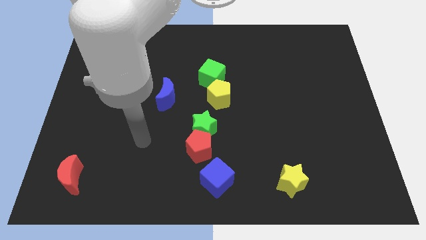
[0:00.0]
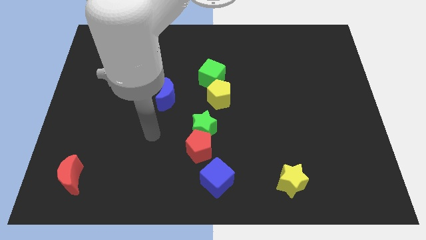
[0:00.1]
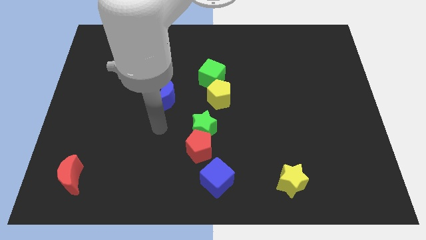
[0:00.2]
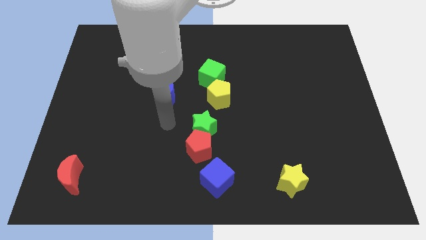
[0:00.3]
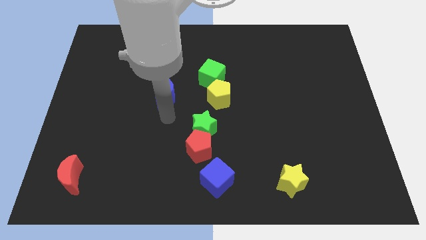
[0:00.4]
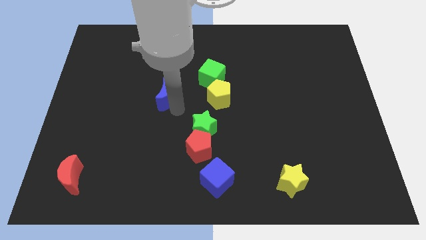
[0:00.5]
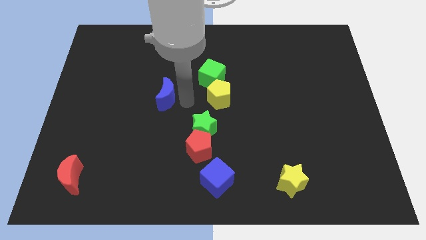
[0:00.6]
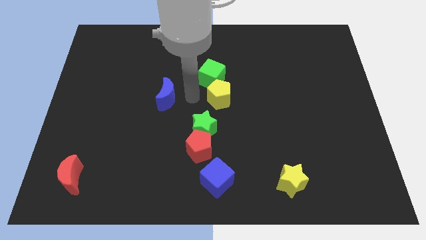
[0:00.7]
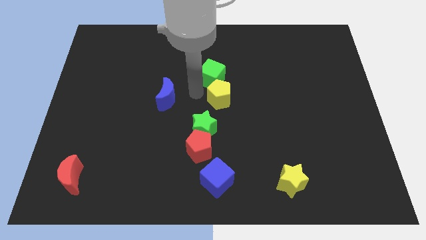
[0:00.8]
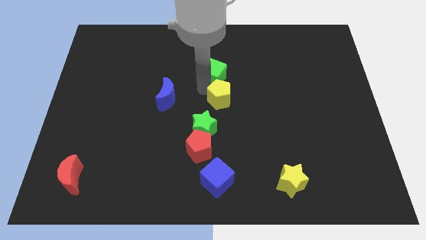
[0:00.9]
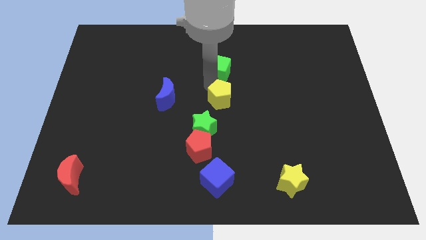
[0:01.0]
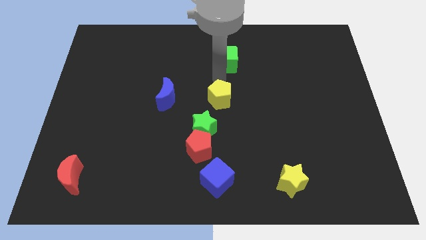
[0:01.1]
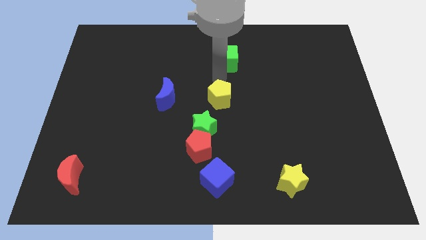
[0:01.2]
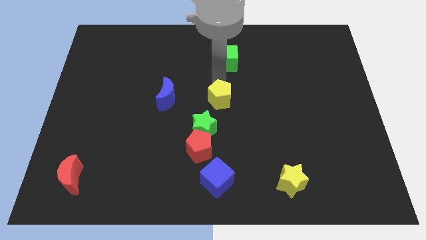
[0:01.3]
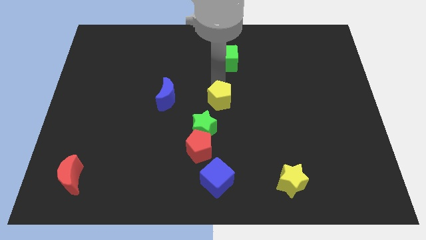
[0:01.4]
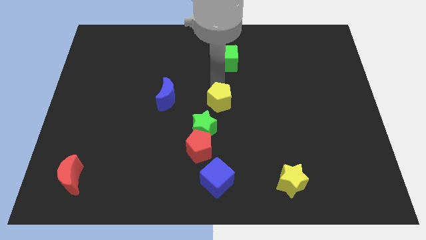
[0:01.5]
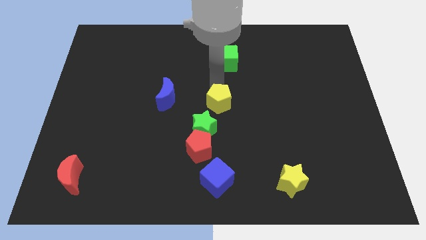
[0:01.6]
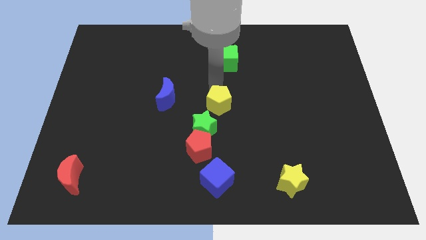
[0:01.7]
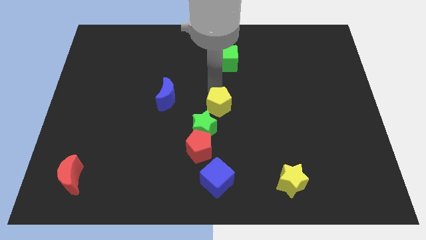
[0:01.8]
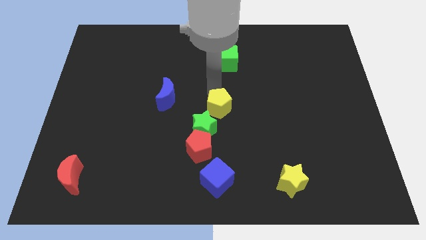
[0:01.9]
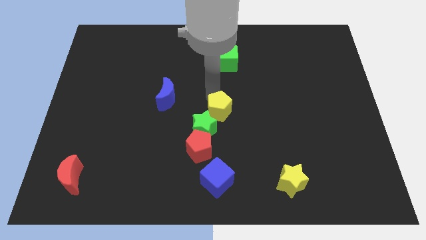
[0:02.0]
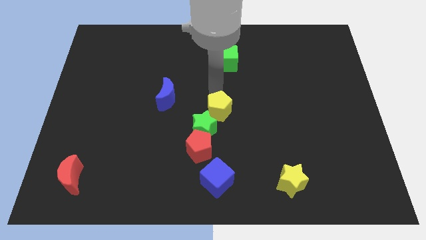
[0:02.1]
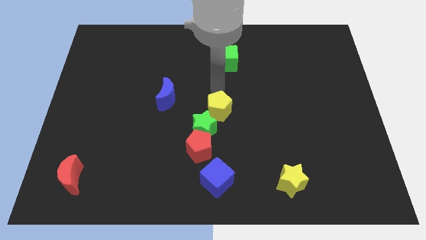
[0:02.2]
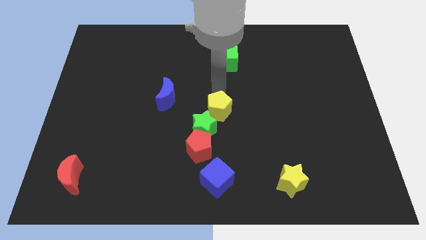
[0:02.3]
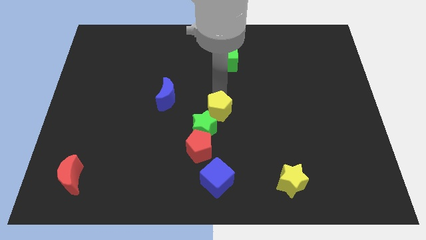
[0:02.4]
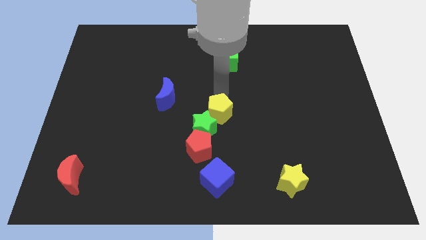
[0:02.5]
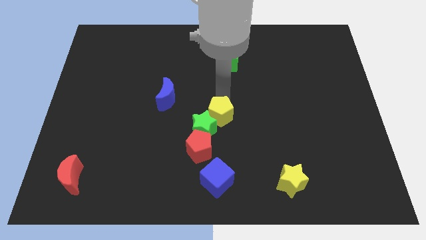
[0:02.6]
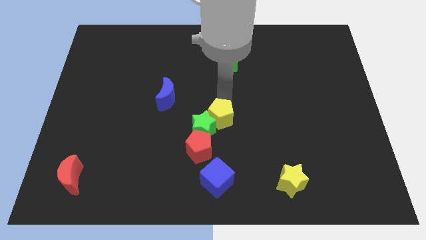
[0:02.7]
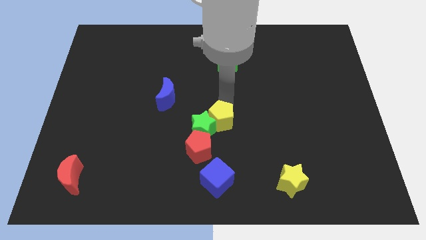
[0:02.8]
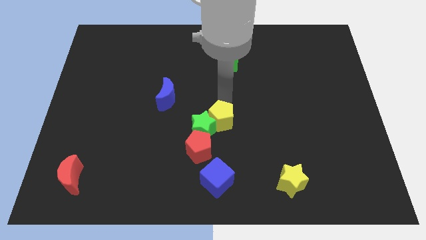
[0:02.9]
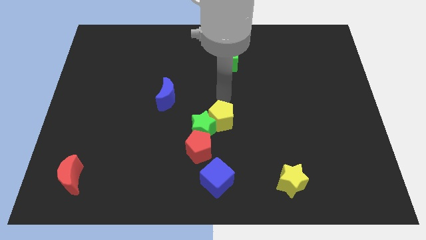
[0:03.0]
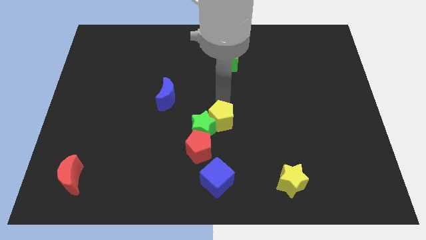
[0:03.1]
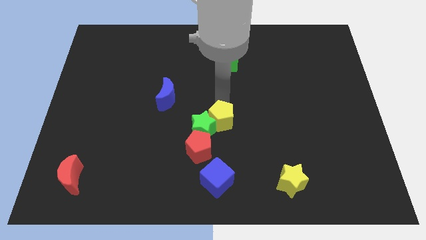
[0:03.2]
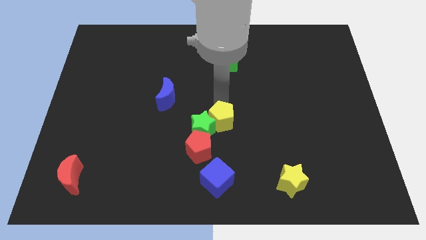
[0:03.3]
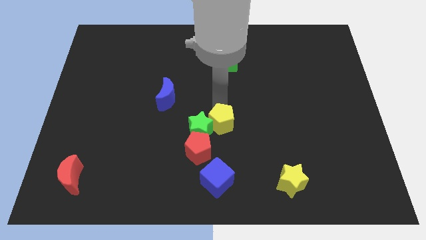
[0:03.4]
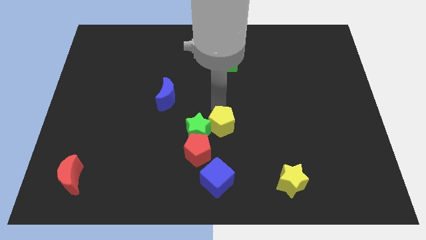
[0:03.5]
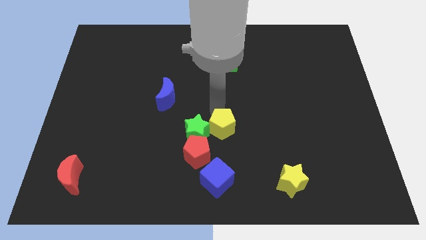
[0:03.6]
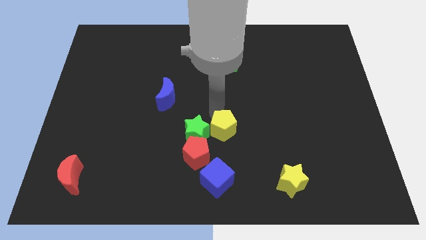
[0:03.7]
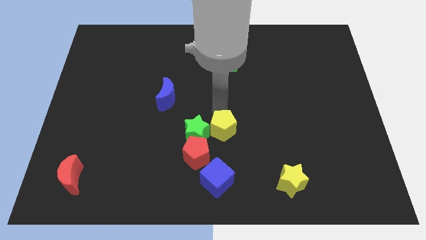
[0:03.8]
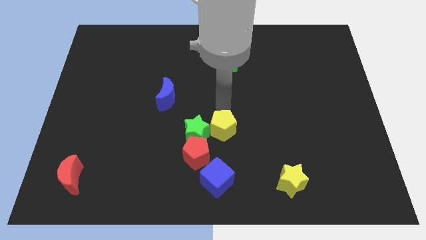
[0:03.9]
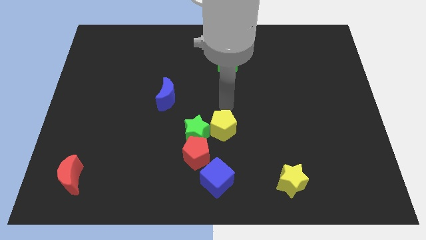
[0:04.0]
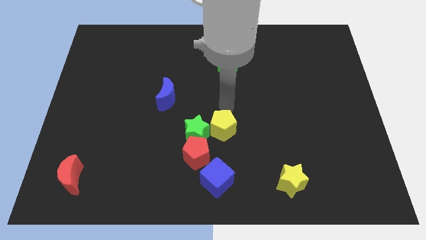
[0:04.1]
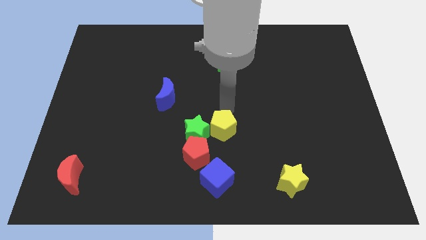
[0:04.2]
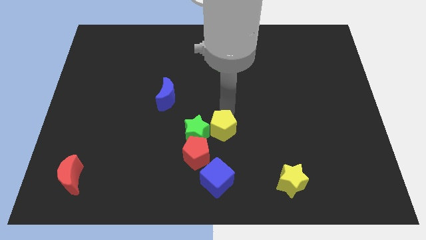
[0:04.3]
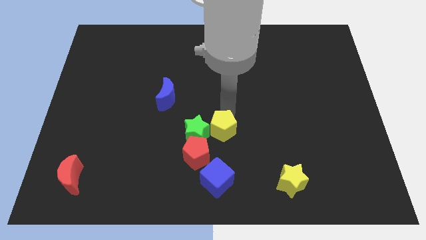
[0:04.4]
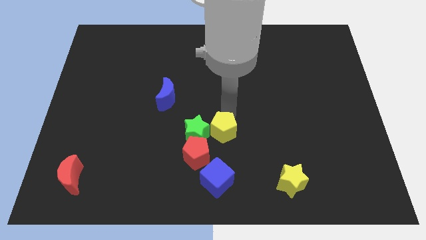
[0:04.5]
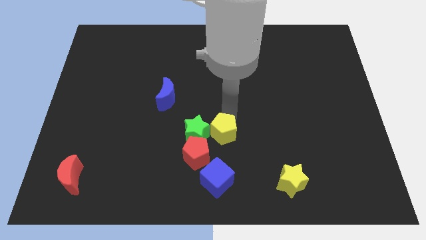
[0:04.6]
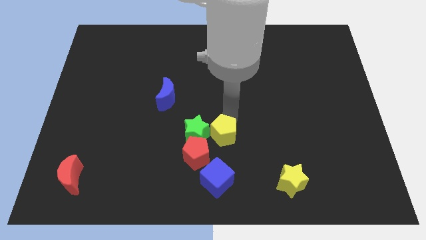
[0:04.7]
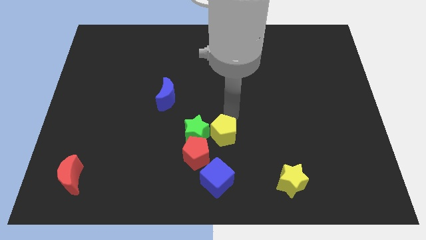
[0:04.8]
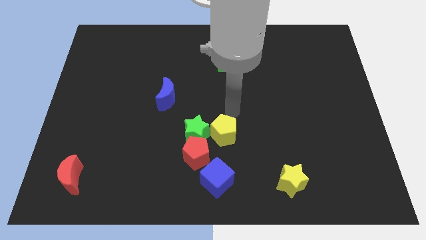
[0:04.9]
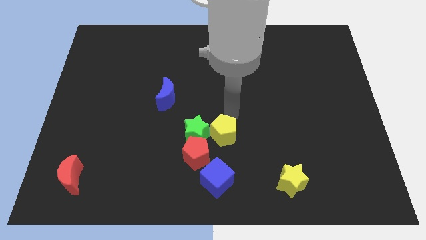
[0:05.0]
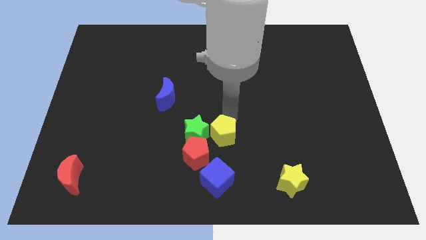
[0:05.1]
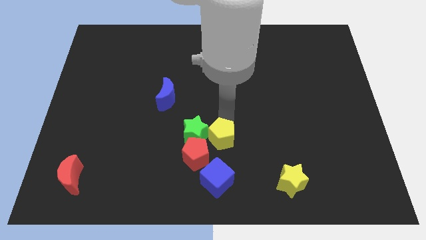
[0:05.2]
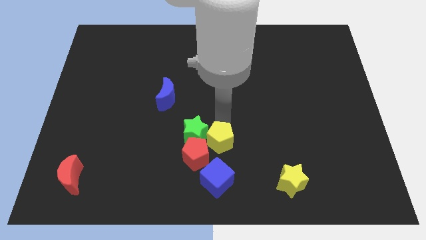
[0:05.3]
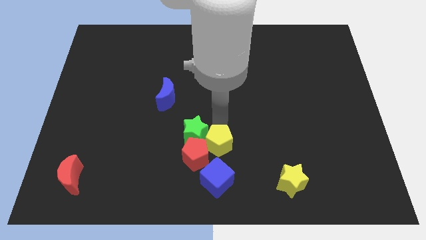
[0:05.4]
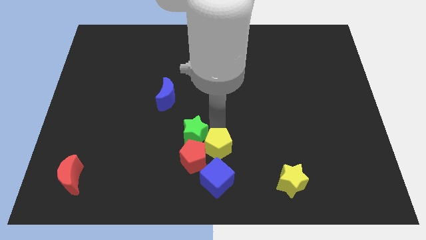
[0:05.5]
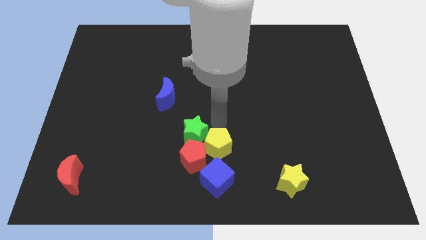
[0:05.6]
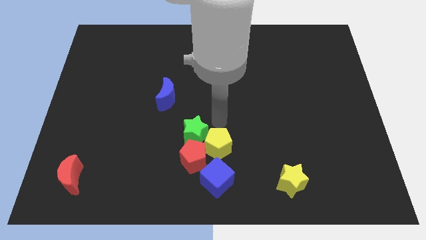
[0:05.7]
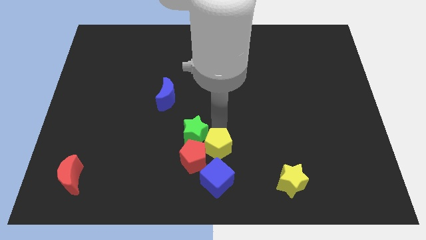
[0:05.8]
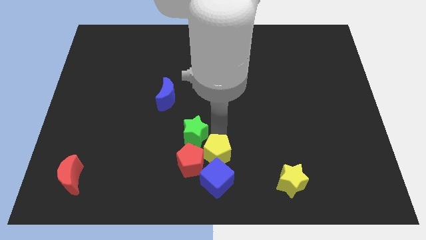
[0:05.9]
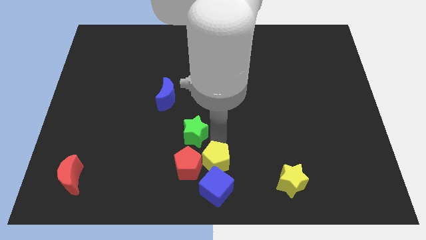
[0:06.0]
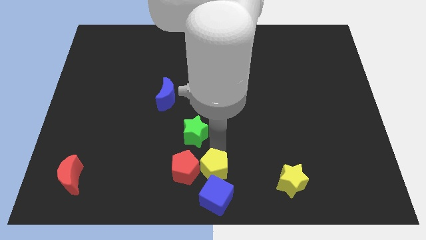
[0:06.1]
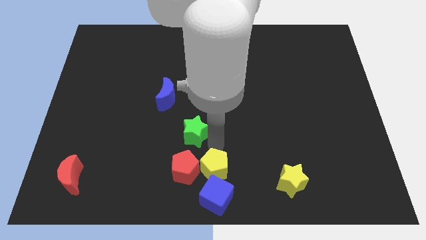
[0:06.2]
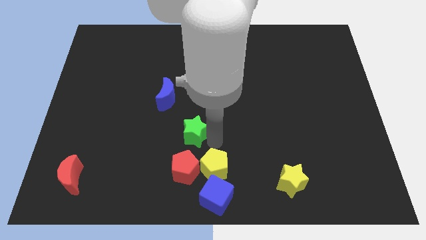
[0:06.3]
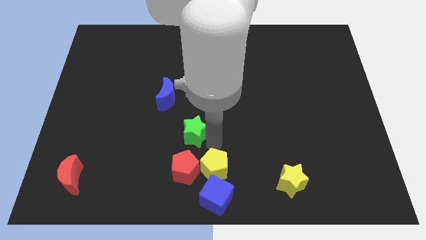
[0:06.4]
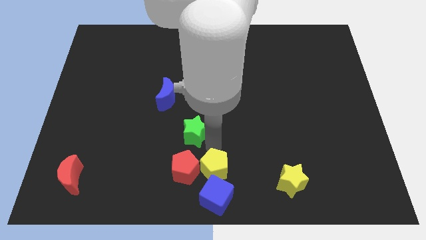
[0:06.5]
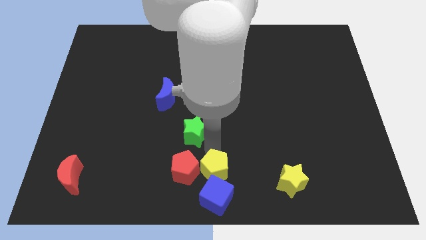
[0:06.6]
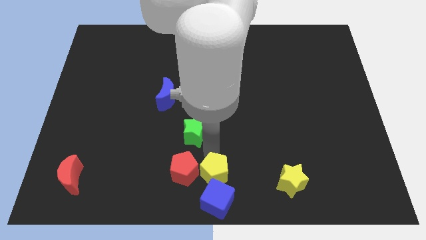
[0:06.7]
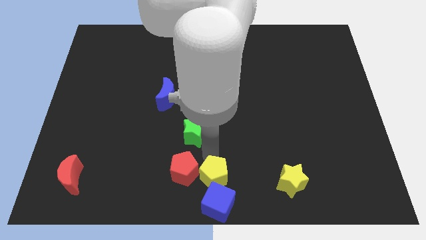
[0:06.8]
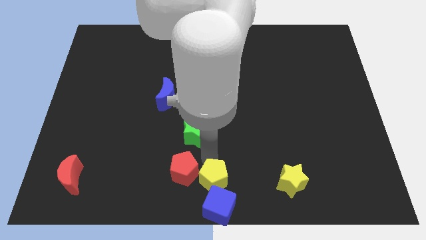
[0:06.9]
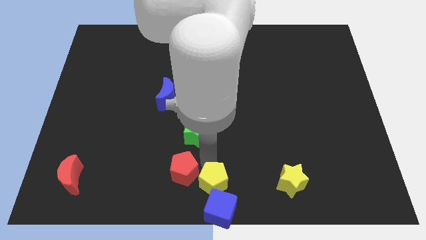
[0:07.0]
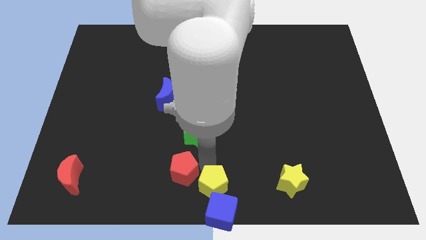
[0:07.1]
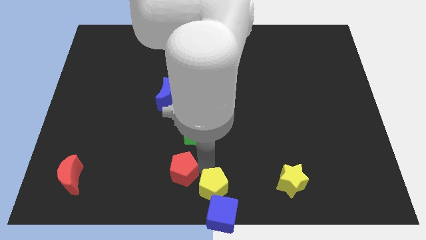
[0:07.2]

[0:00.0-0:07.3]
push the yellow pentagon towards the blue cube

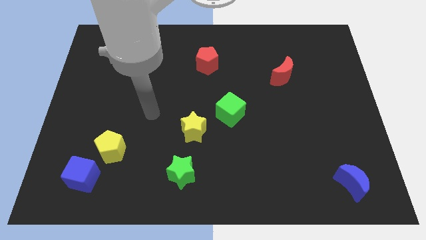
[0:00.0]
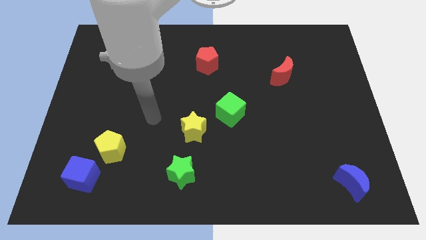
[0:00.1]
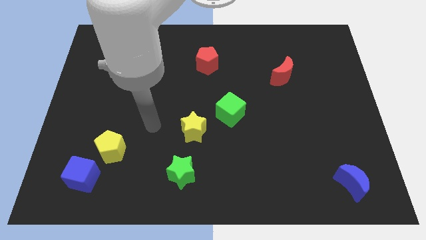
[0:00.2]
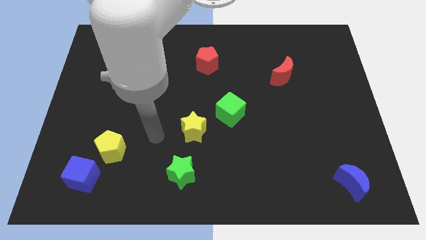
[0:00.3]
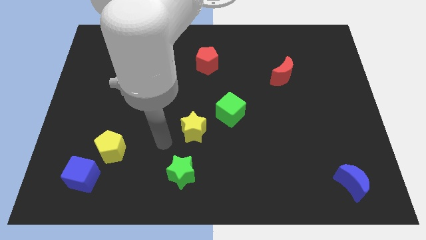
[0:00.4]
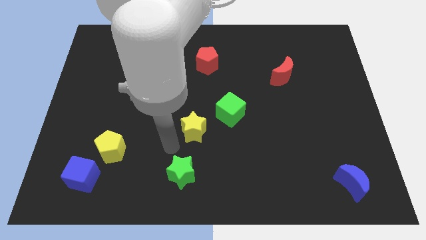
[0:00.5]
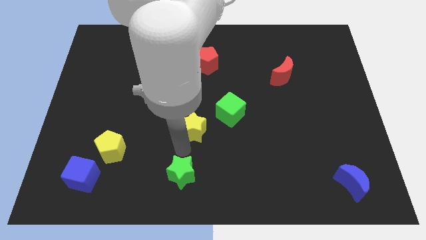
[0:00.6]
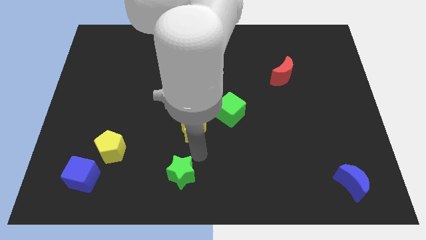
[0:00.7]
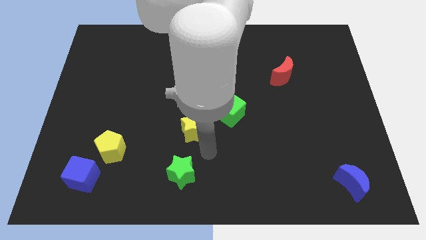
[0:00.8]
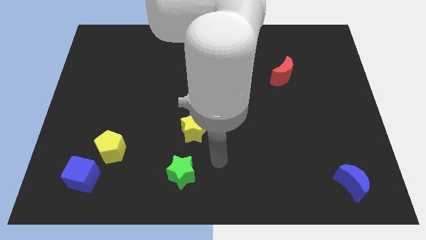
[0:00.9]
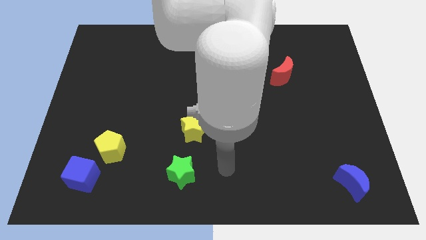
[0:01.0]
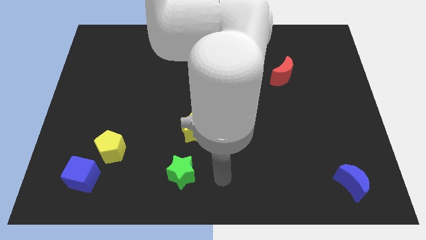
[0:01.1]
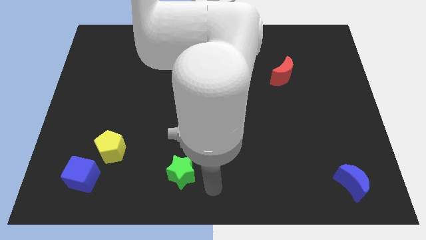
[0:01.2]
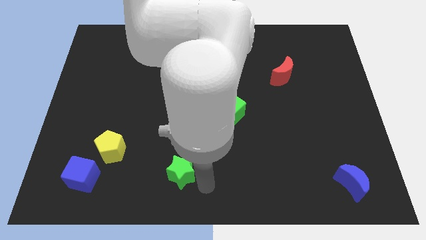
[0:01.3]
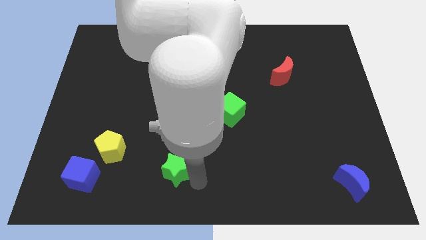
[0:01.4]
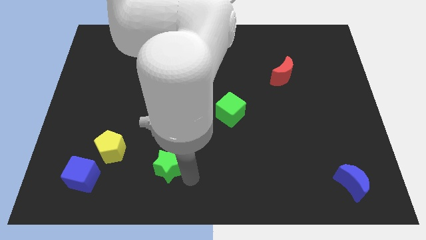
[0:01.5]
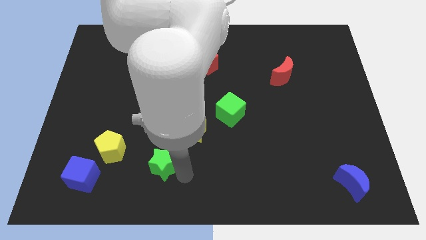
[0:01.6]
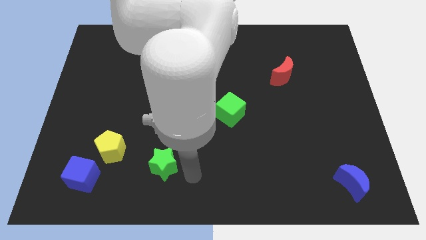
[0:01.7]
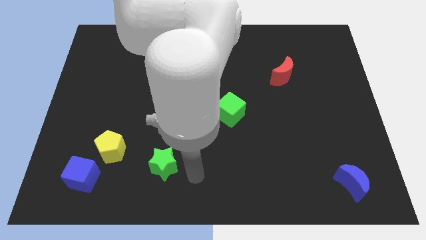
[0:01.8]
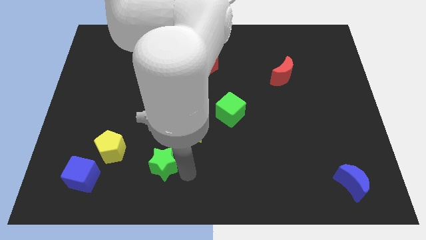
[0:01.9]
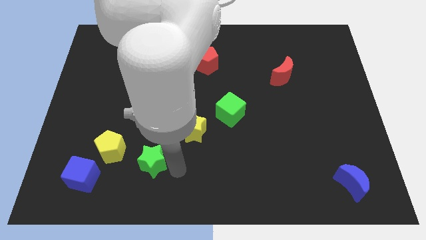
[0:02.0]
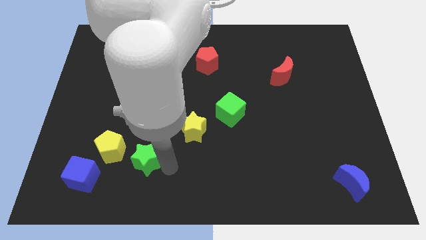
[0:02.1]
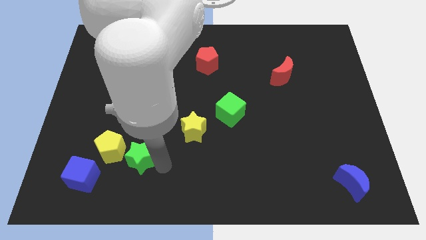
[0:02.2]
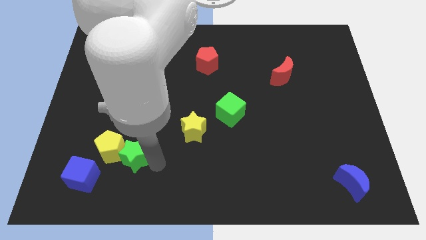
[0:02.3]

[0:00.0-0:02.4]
slide the green star towards the yellow pentagon
